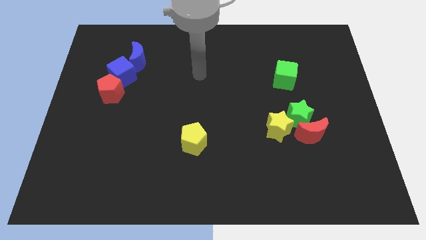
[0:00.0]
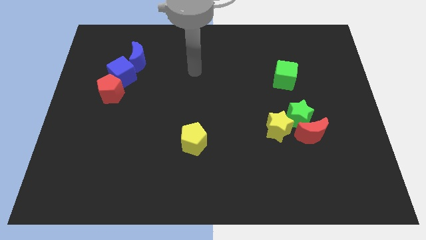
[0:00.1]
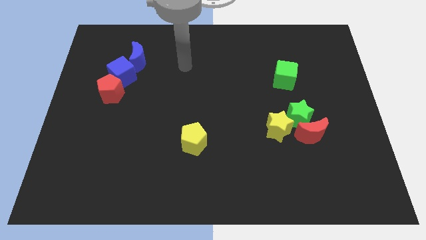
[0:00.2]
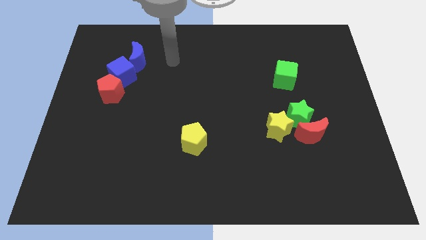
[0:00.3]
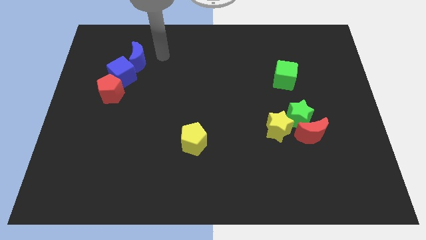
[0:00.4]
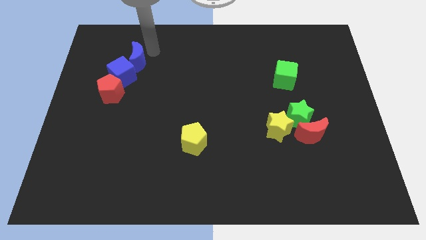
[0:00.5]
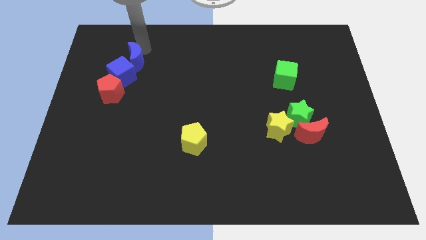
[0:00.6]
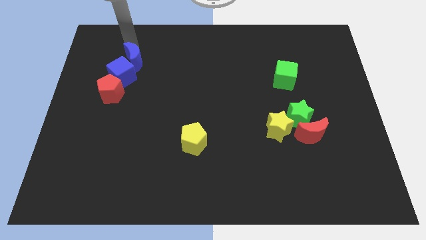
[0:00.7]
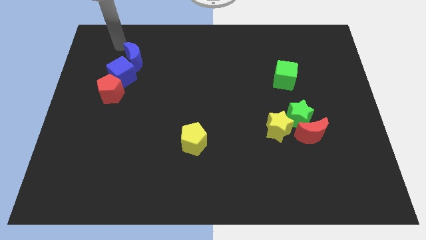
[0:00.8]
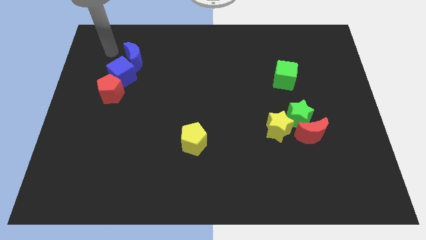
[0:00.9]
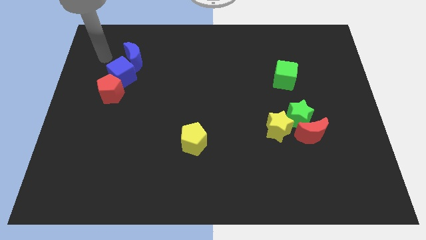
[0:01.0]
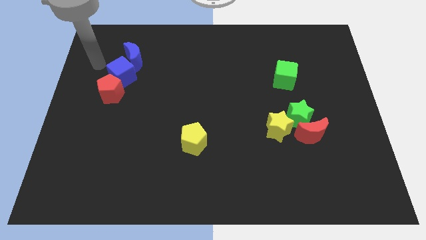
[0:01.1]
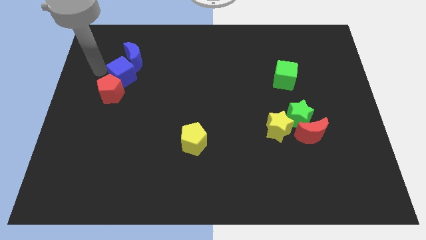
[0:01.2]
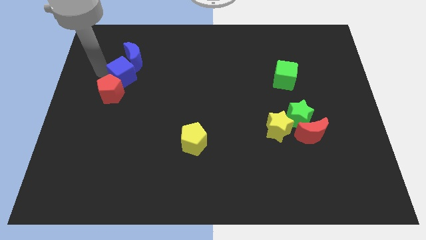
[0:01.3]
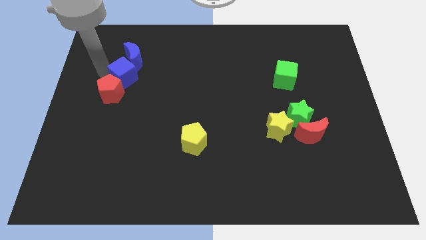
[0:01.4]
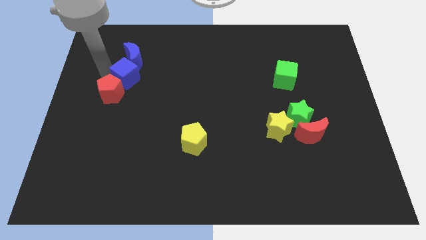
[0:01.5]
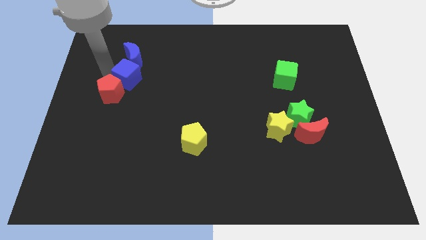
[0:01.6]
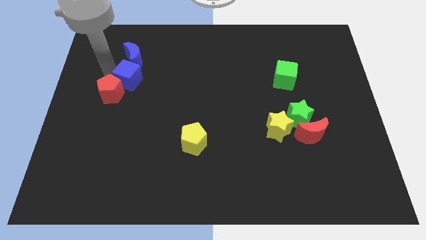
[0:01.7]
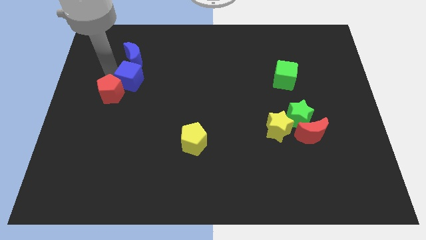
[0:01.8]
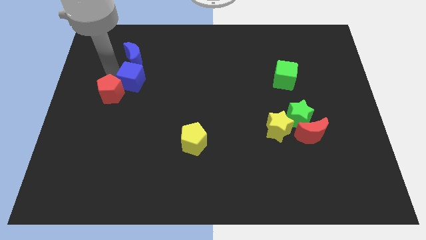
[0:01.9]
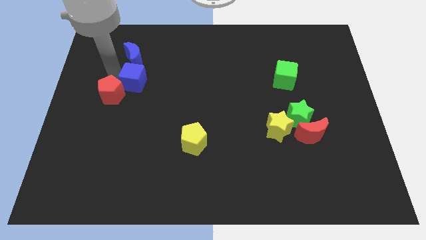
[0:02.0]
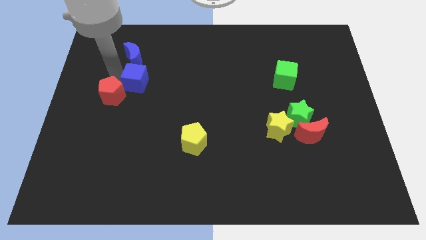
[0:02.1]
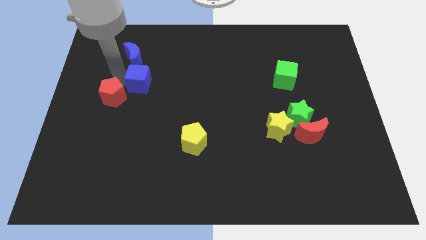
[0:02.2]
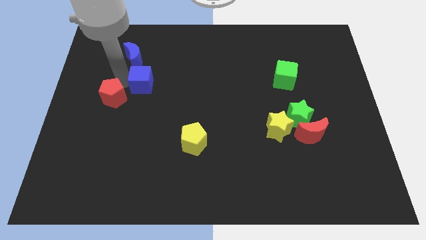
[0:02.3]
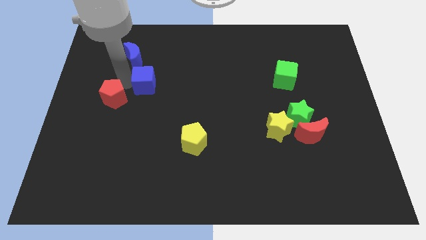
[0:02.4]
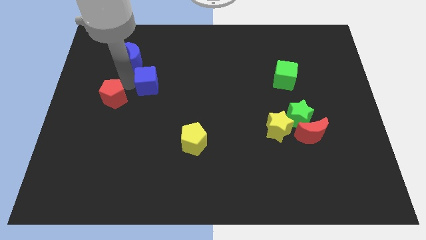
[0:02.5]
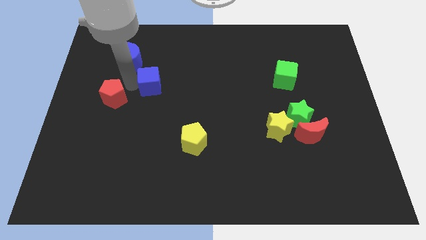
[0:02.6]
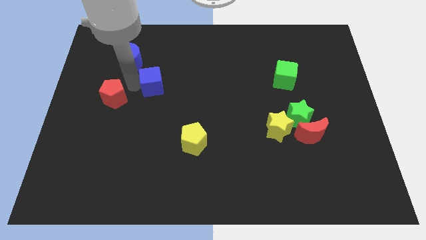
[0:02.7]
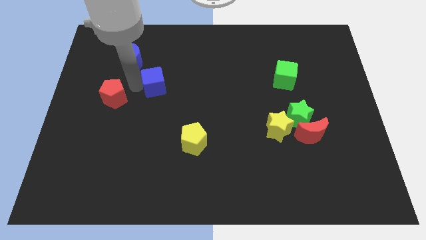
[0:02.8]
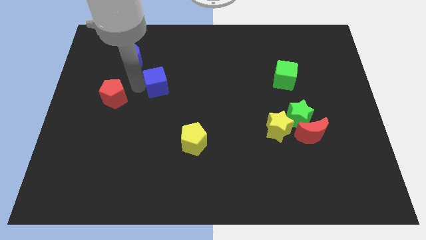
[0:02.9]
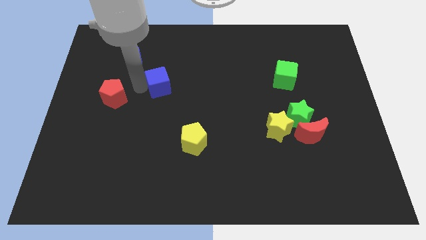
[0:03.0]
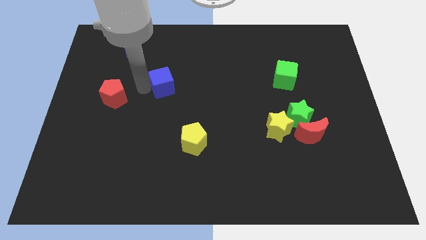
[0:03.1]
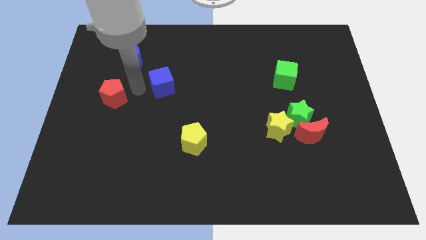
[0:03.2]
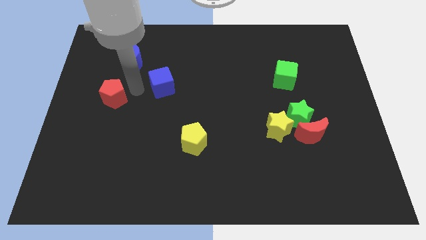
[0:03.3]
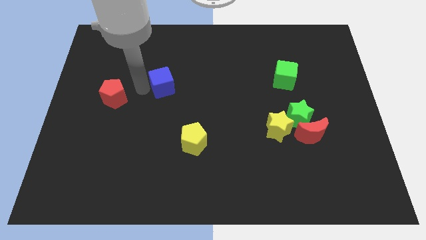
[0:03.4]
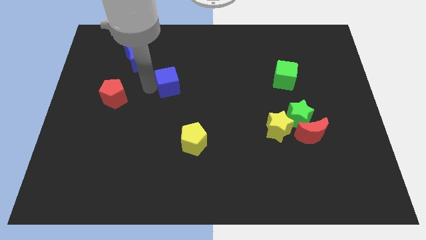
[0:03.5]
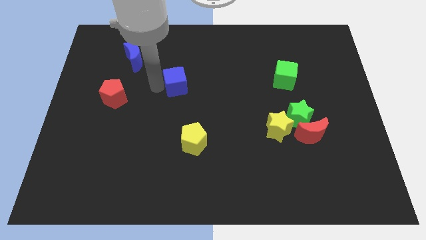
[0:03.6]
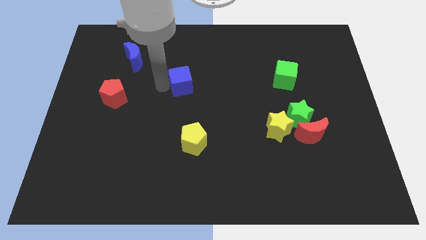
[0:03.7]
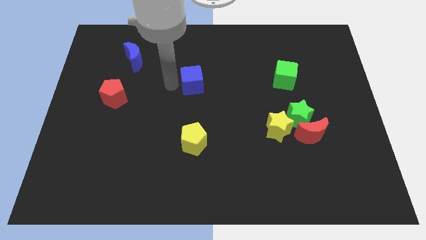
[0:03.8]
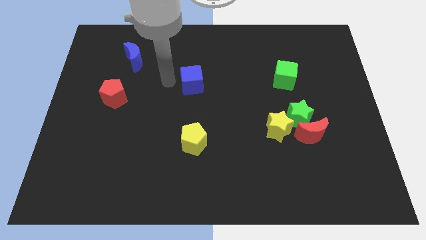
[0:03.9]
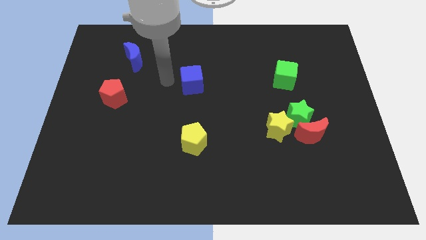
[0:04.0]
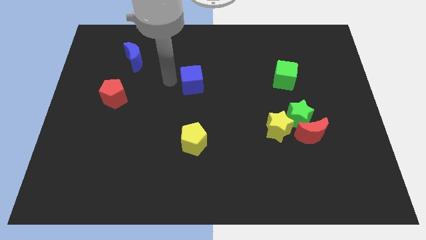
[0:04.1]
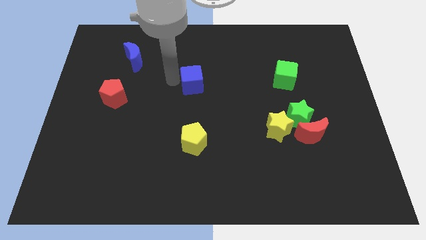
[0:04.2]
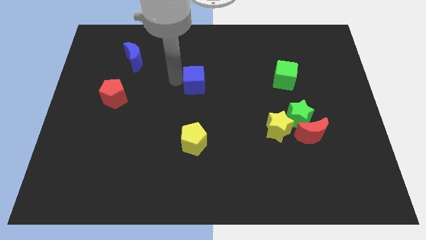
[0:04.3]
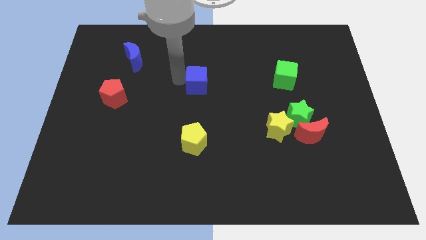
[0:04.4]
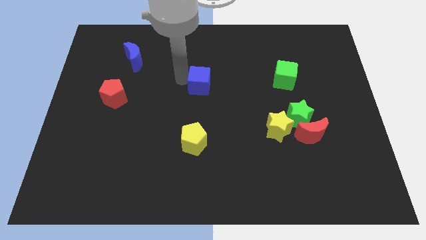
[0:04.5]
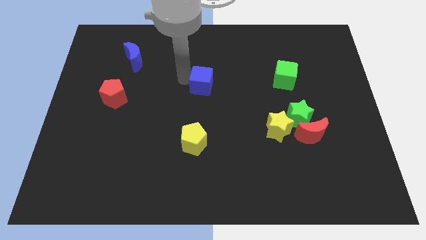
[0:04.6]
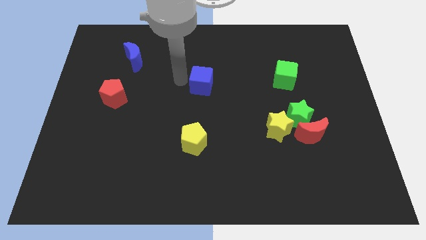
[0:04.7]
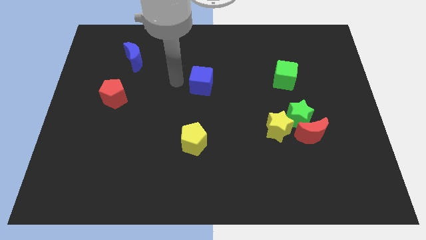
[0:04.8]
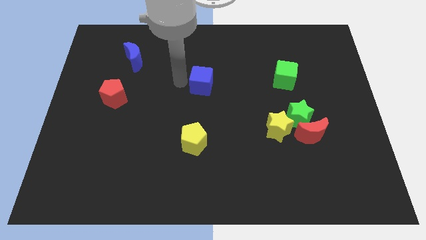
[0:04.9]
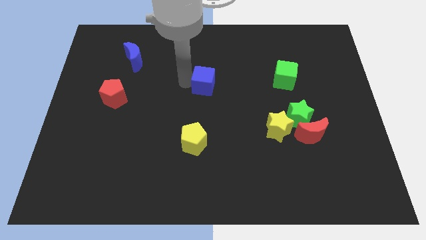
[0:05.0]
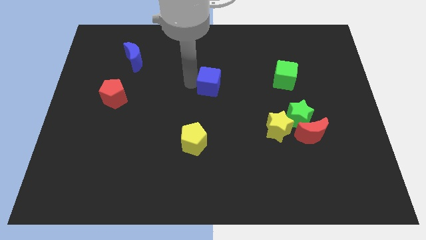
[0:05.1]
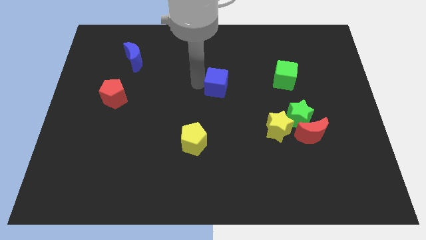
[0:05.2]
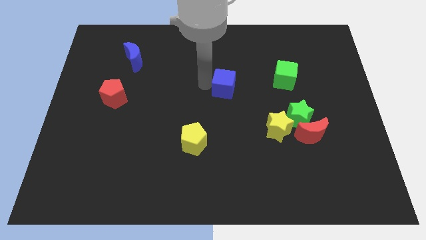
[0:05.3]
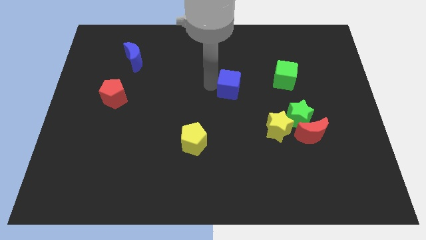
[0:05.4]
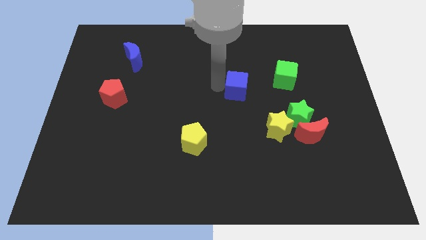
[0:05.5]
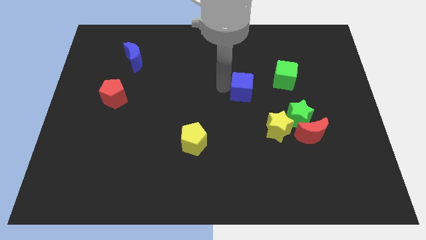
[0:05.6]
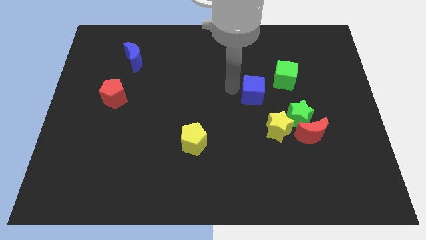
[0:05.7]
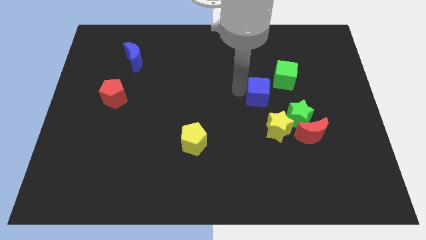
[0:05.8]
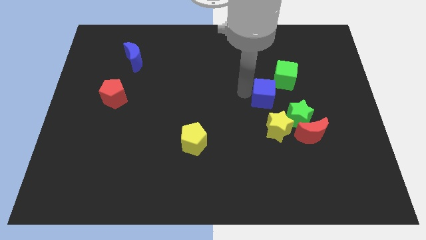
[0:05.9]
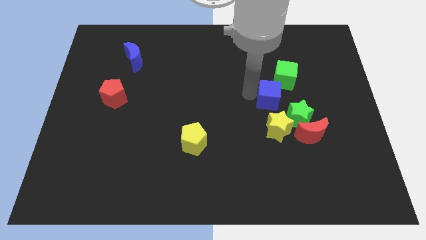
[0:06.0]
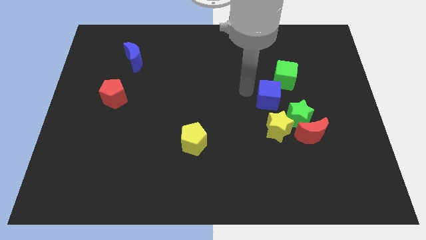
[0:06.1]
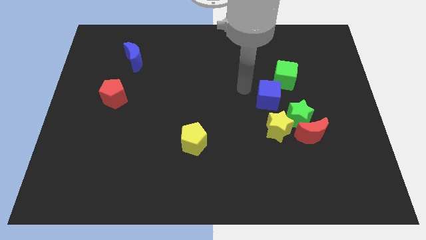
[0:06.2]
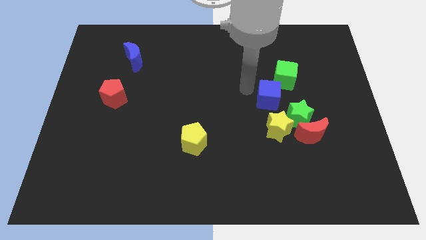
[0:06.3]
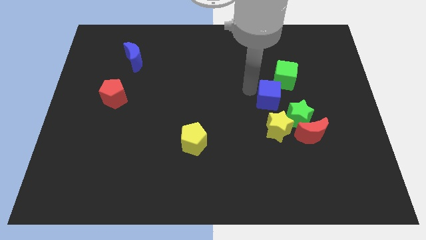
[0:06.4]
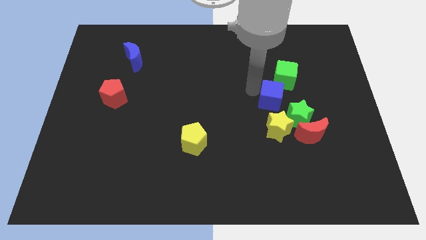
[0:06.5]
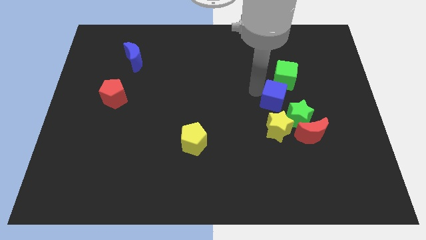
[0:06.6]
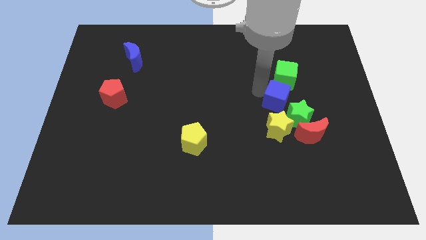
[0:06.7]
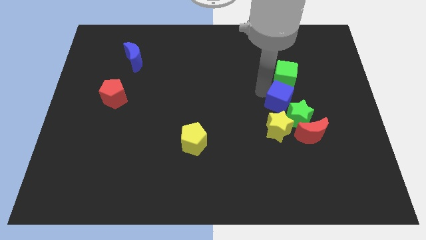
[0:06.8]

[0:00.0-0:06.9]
push the blue cube to the top right of the yellow star
